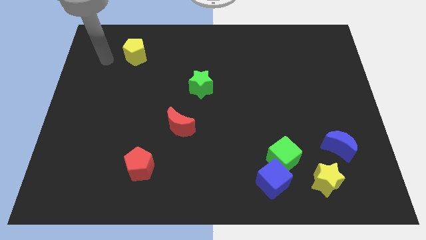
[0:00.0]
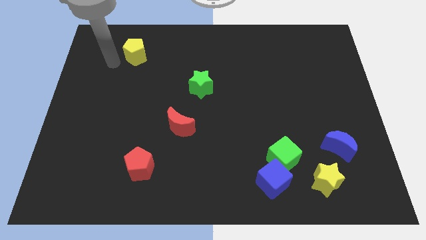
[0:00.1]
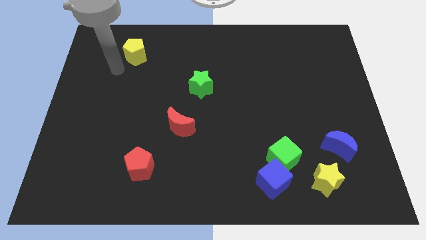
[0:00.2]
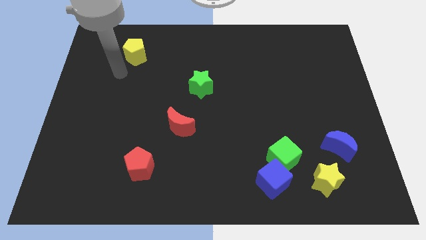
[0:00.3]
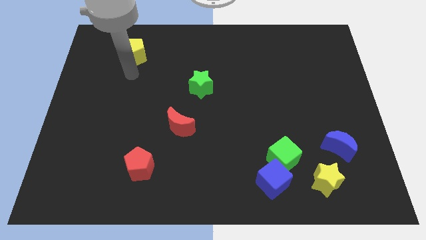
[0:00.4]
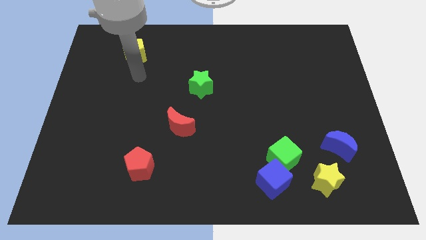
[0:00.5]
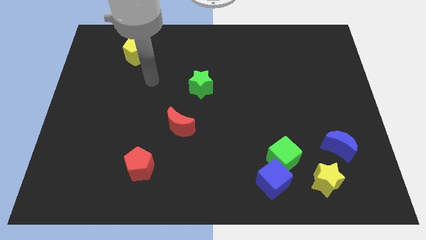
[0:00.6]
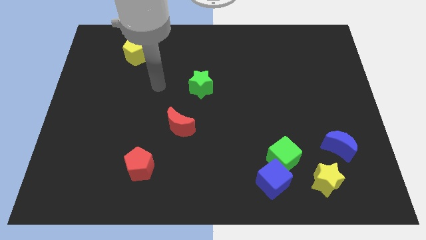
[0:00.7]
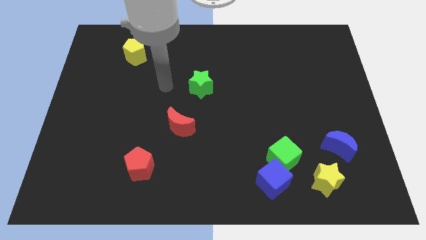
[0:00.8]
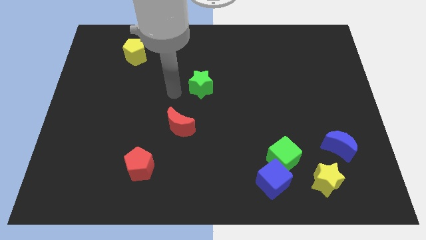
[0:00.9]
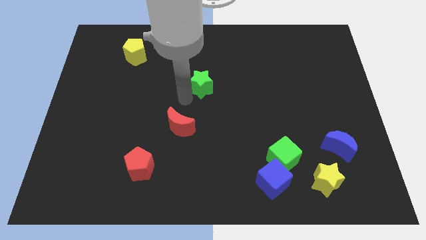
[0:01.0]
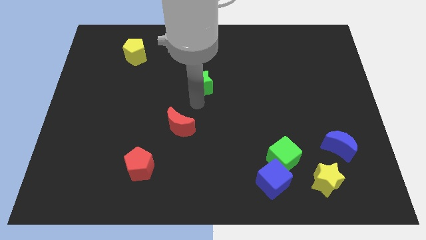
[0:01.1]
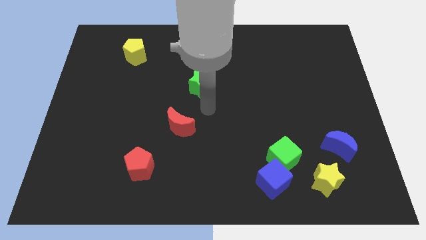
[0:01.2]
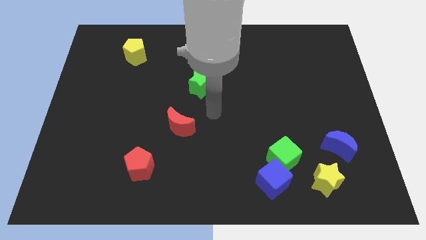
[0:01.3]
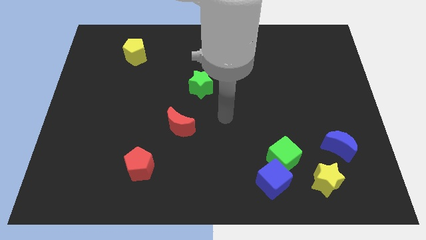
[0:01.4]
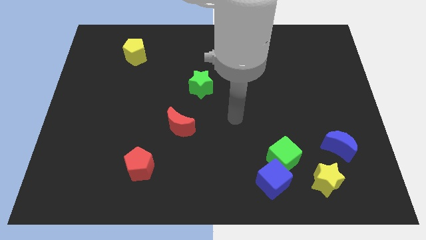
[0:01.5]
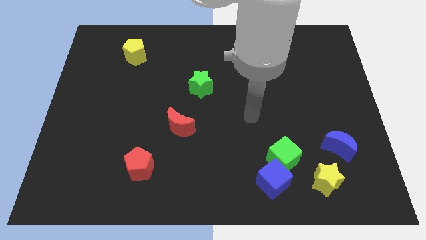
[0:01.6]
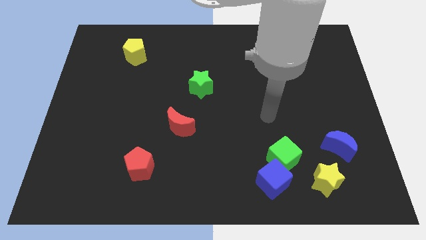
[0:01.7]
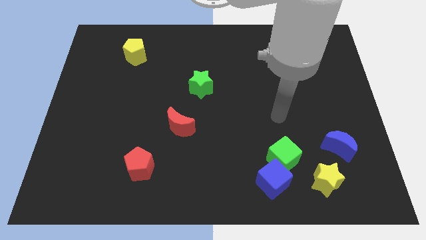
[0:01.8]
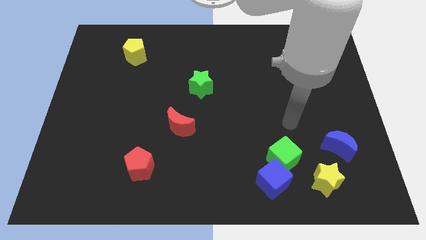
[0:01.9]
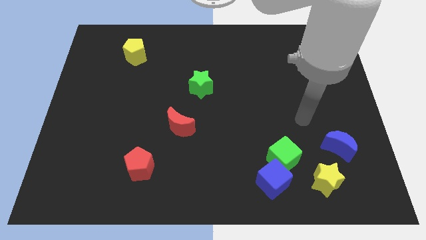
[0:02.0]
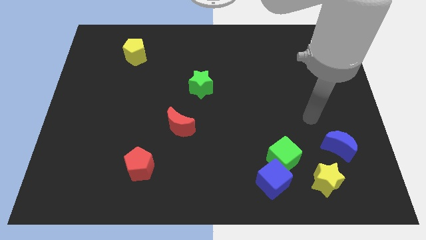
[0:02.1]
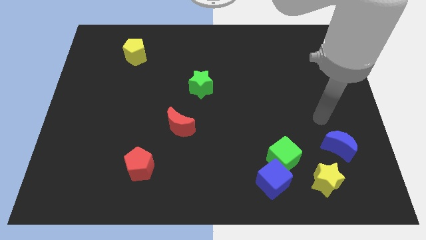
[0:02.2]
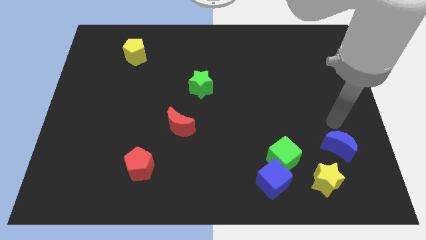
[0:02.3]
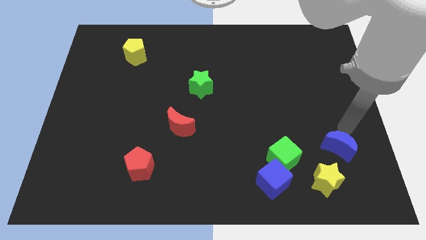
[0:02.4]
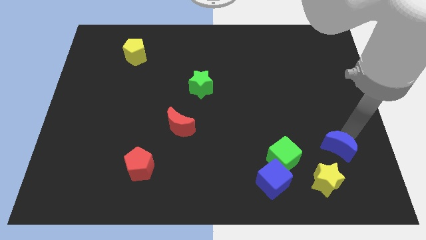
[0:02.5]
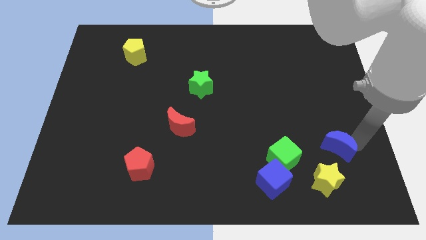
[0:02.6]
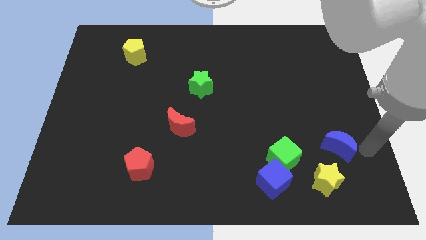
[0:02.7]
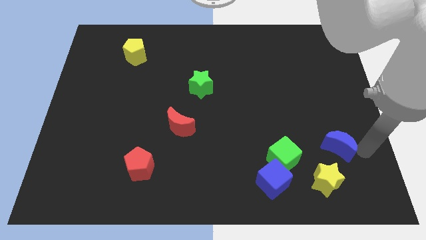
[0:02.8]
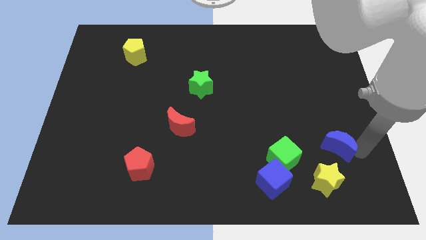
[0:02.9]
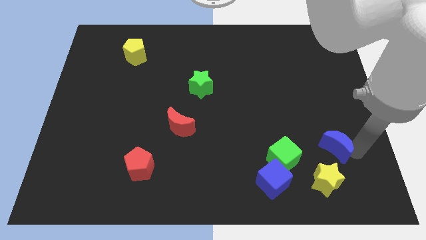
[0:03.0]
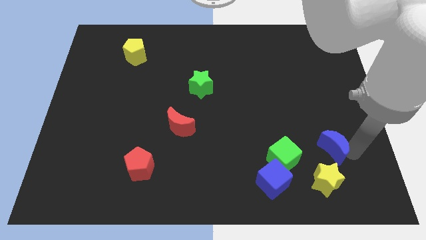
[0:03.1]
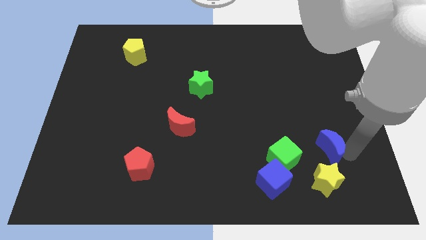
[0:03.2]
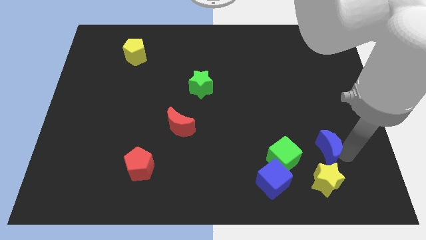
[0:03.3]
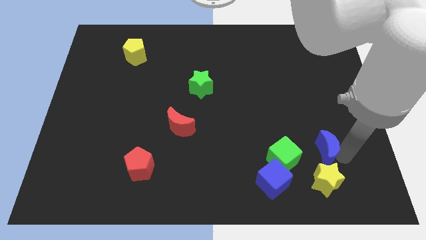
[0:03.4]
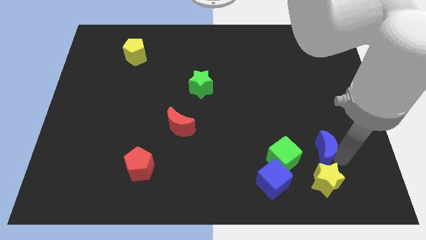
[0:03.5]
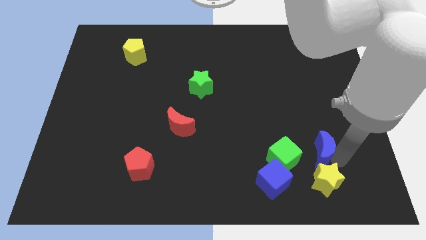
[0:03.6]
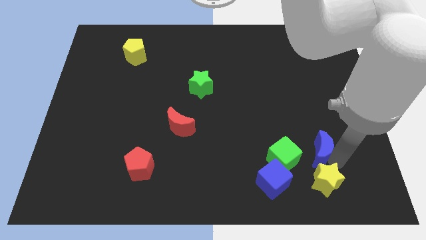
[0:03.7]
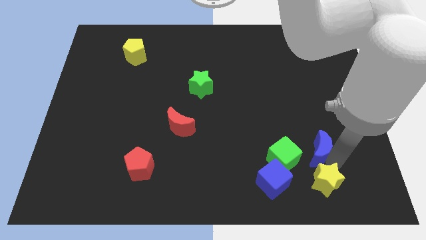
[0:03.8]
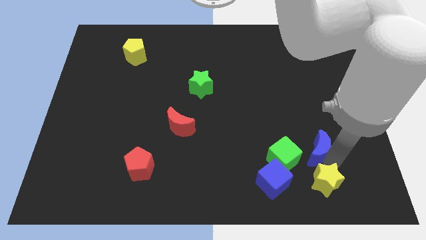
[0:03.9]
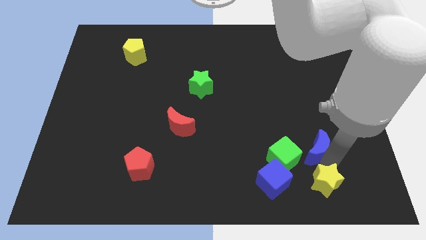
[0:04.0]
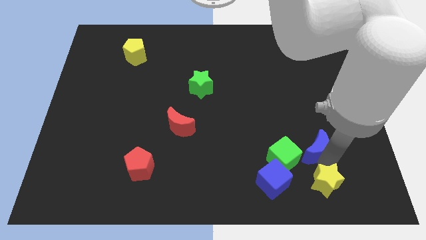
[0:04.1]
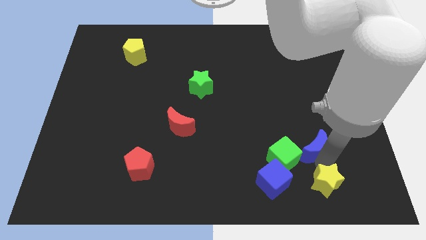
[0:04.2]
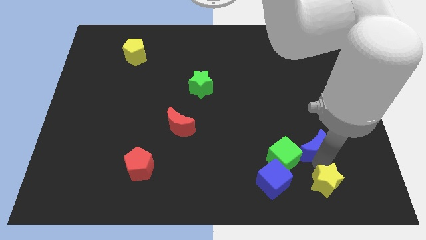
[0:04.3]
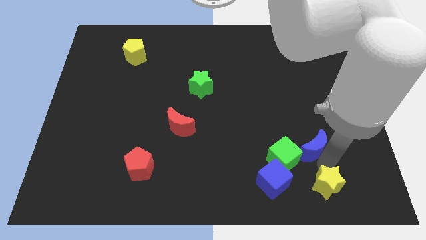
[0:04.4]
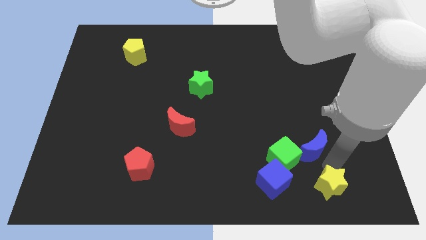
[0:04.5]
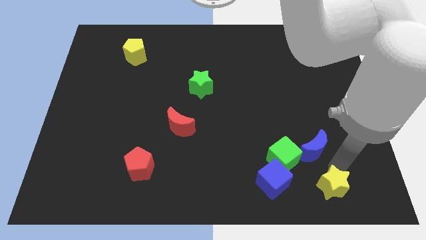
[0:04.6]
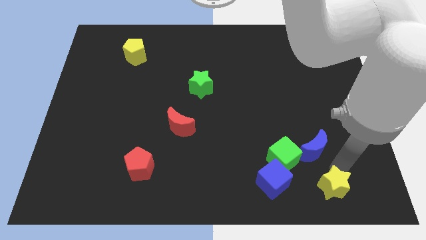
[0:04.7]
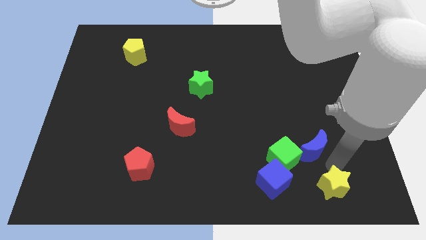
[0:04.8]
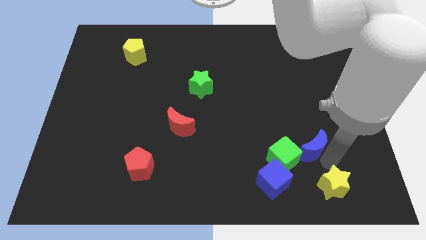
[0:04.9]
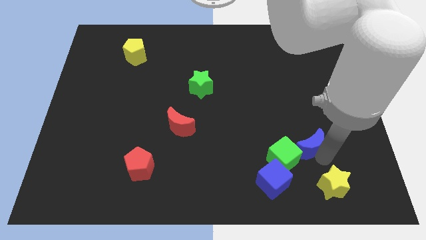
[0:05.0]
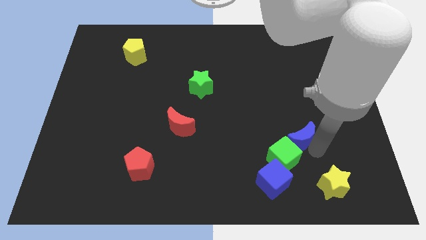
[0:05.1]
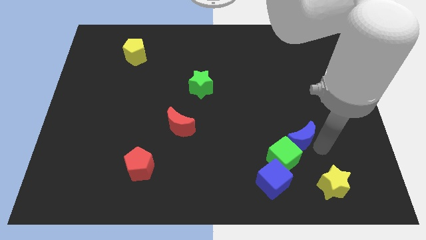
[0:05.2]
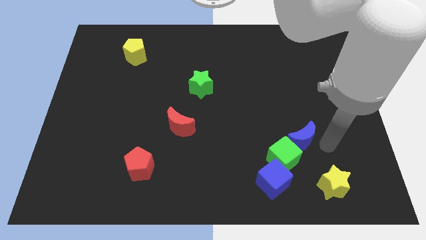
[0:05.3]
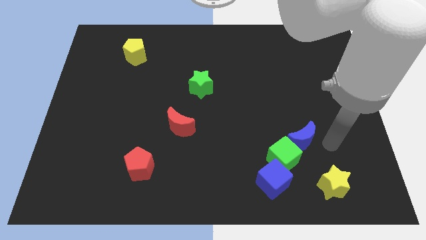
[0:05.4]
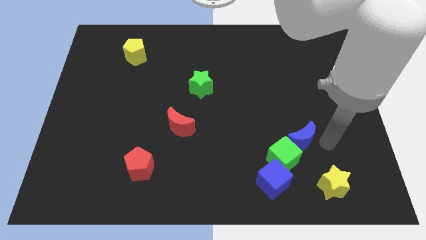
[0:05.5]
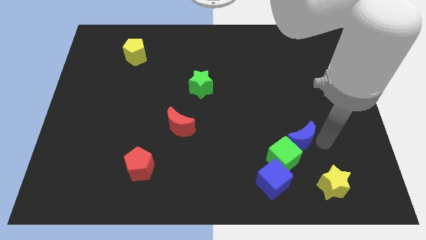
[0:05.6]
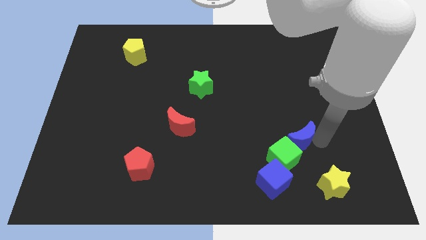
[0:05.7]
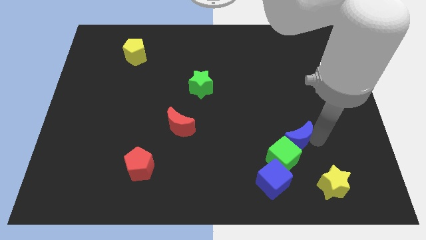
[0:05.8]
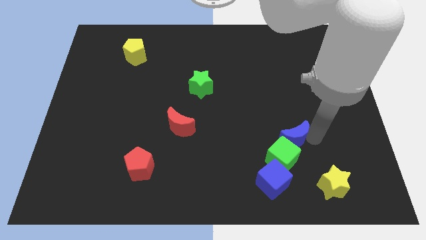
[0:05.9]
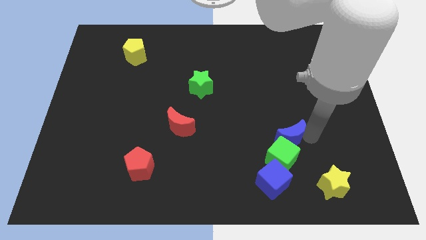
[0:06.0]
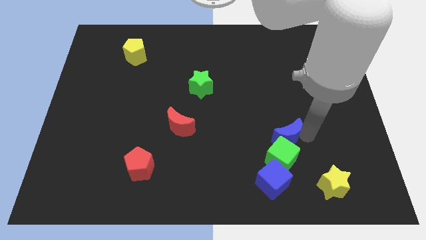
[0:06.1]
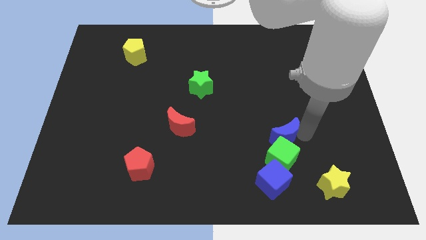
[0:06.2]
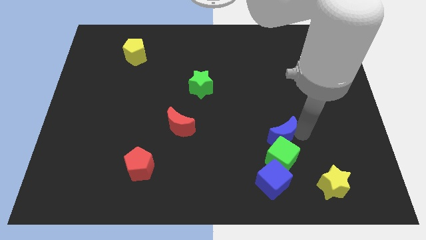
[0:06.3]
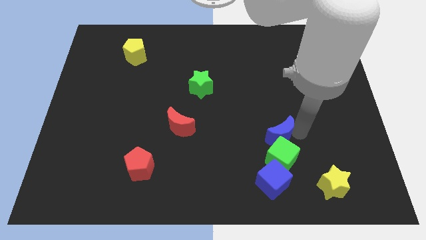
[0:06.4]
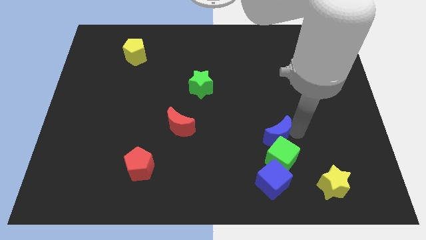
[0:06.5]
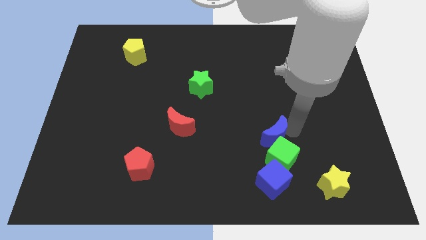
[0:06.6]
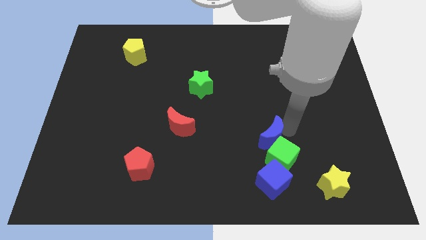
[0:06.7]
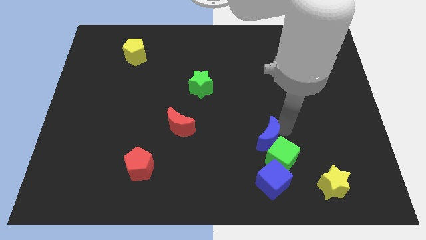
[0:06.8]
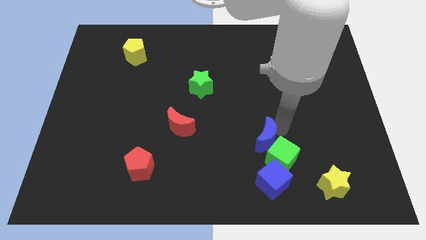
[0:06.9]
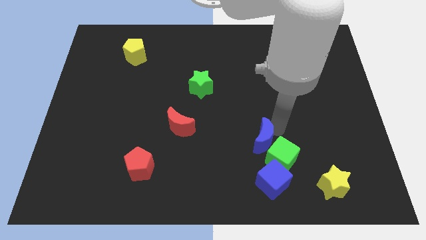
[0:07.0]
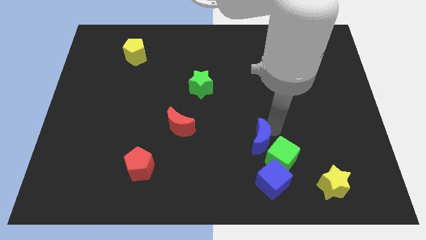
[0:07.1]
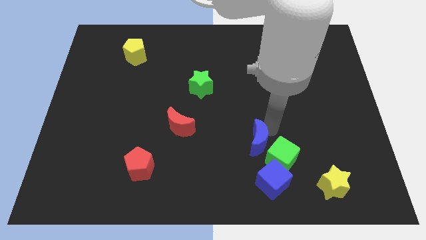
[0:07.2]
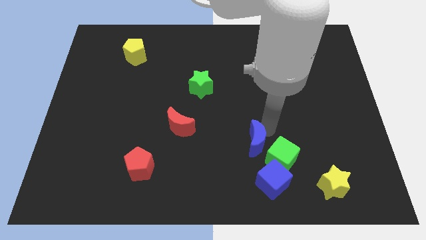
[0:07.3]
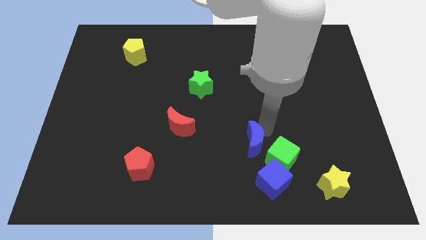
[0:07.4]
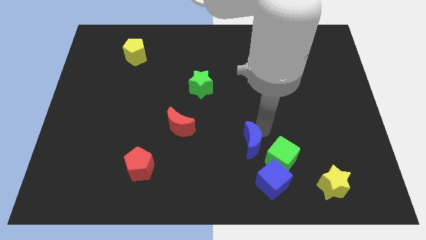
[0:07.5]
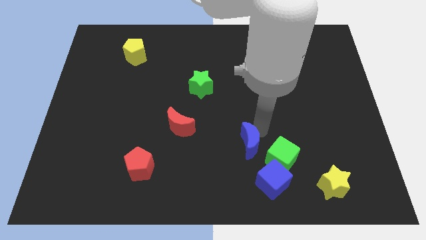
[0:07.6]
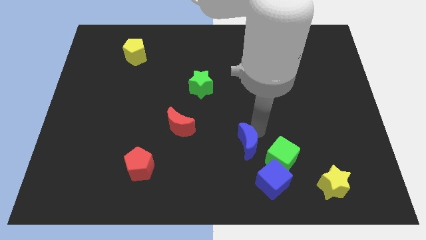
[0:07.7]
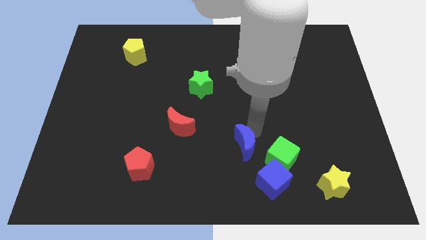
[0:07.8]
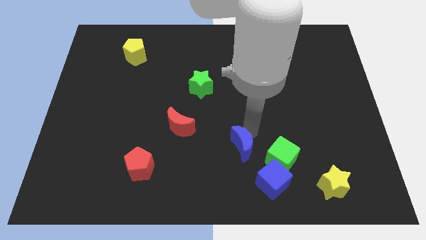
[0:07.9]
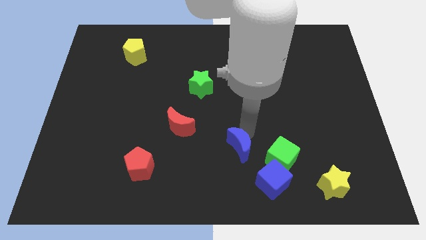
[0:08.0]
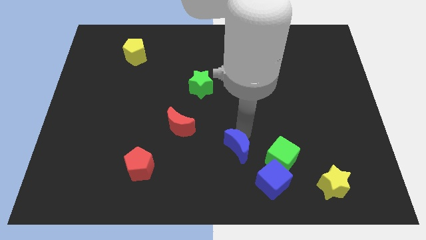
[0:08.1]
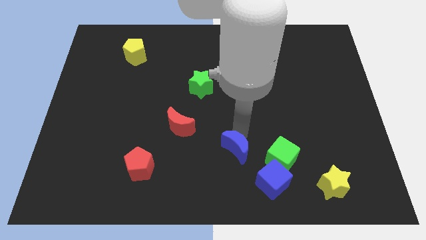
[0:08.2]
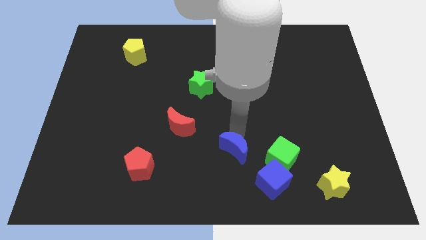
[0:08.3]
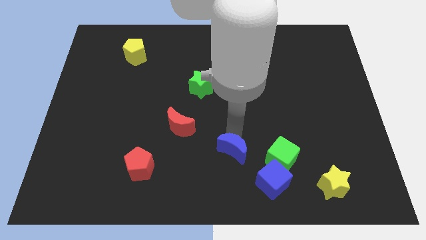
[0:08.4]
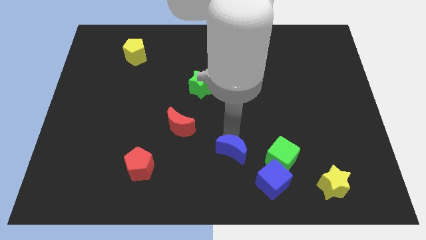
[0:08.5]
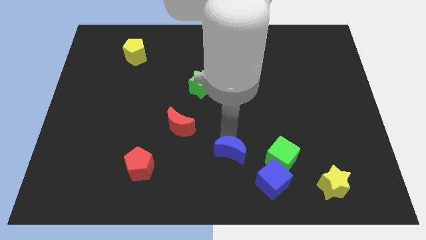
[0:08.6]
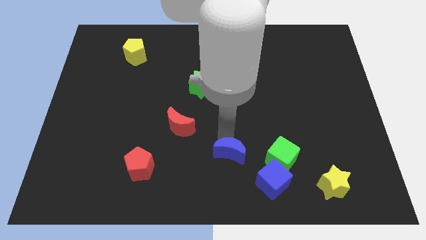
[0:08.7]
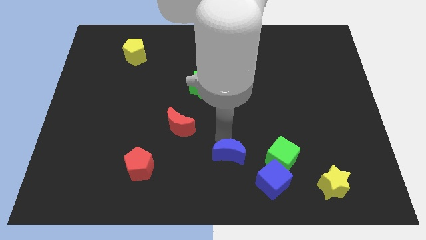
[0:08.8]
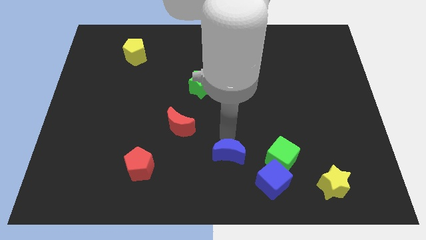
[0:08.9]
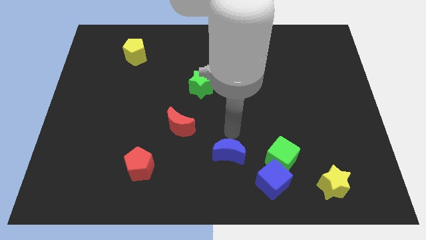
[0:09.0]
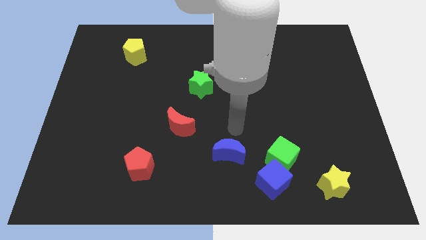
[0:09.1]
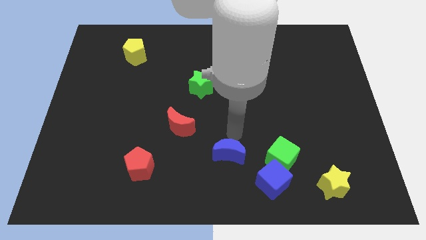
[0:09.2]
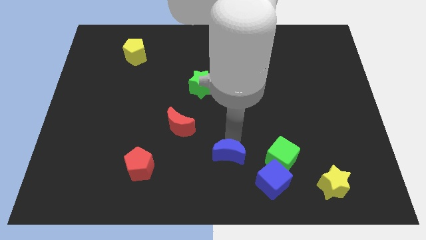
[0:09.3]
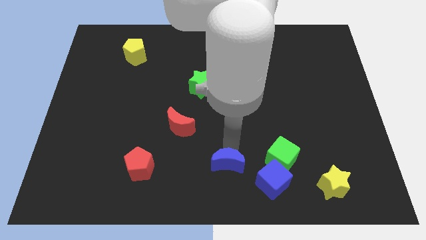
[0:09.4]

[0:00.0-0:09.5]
move the blue moon to the left of the blue cube
